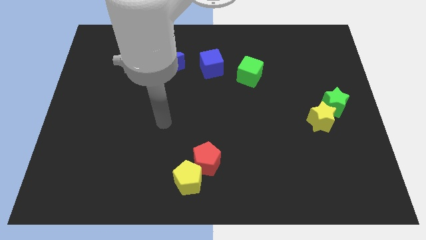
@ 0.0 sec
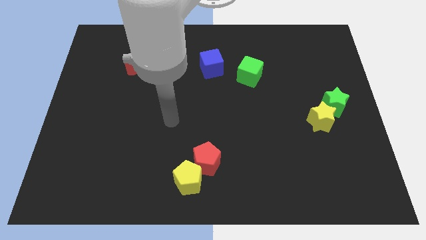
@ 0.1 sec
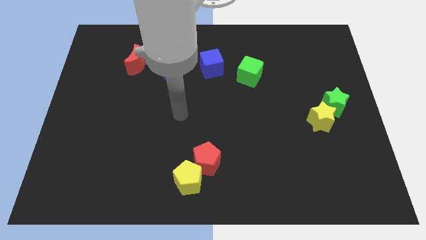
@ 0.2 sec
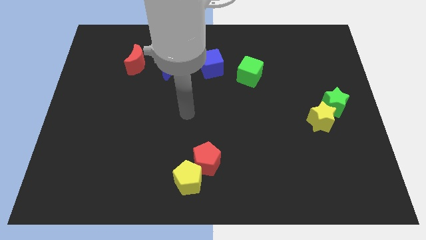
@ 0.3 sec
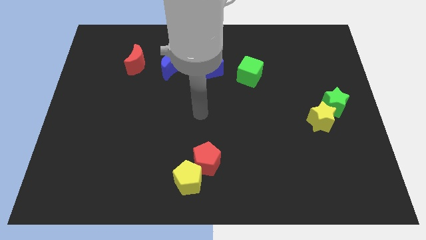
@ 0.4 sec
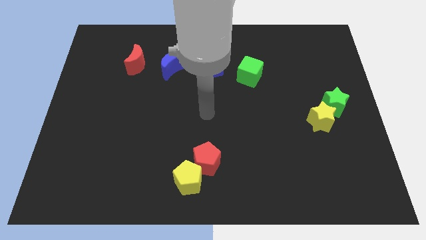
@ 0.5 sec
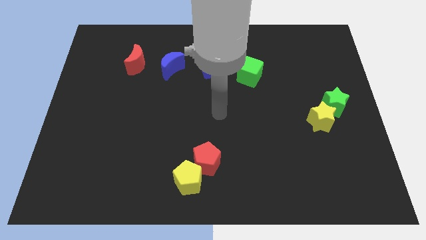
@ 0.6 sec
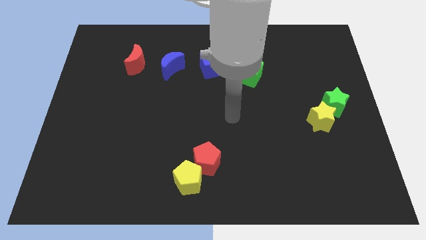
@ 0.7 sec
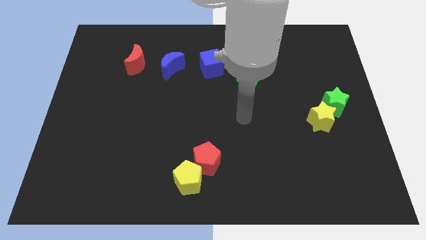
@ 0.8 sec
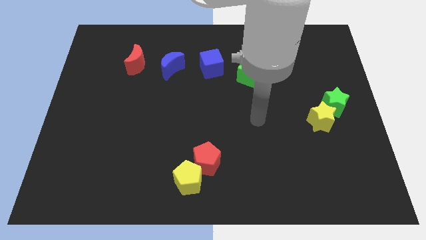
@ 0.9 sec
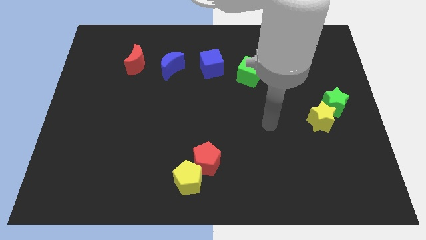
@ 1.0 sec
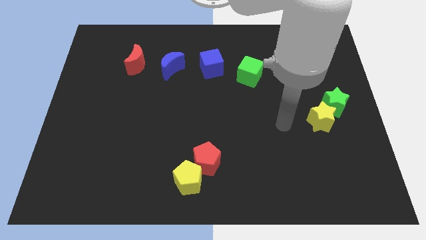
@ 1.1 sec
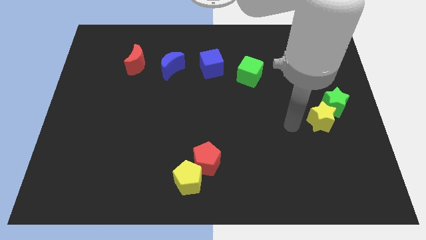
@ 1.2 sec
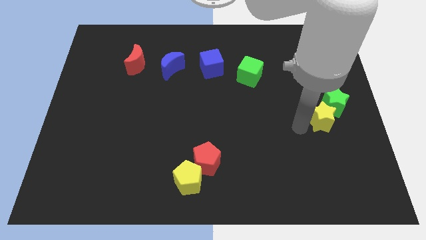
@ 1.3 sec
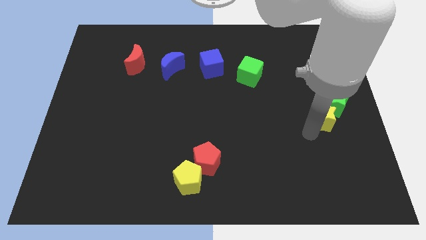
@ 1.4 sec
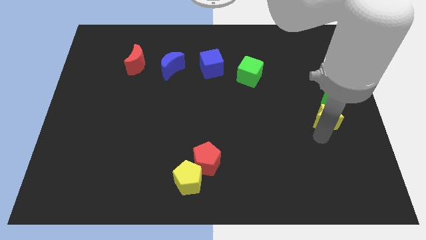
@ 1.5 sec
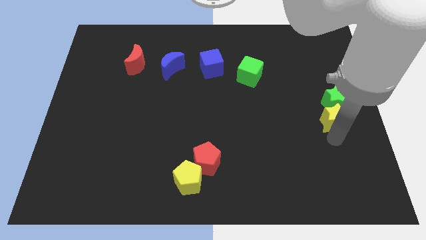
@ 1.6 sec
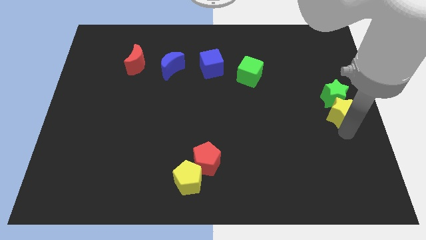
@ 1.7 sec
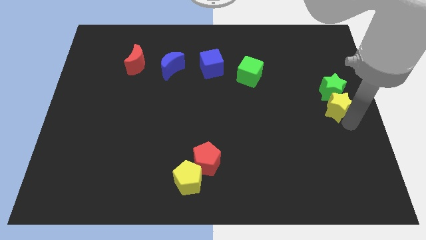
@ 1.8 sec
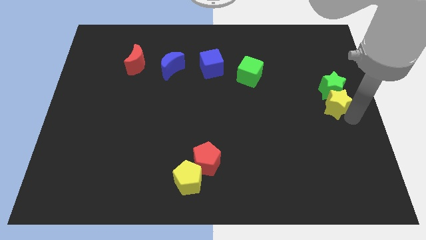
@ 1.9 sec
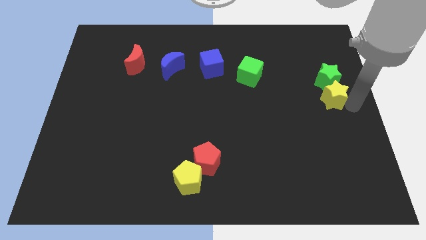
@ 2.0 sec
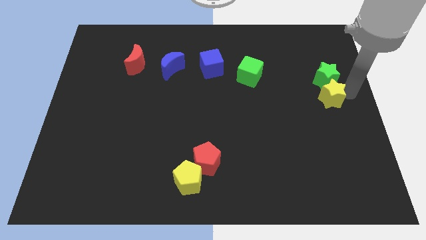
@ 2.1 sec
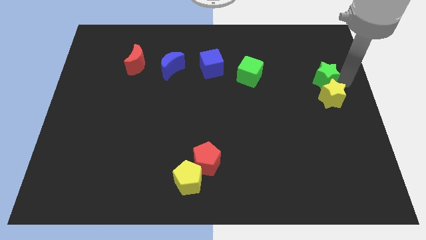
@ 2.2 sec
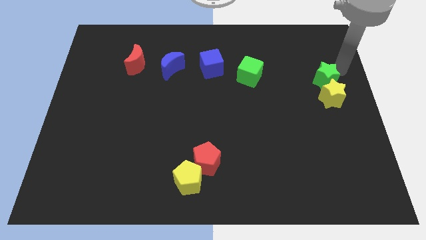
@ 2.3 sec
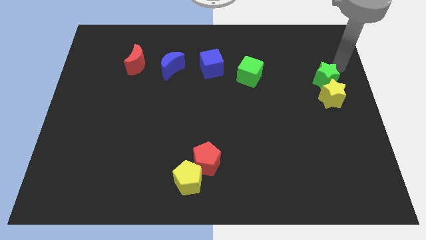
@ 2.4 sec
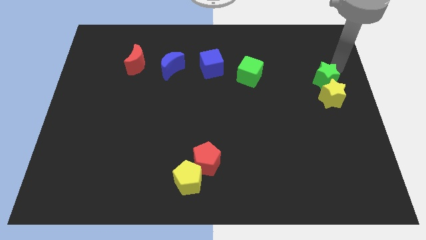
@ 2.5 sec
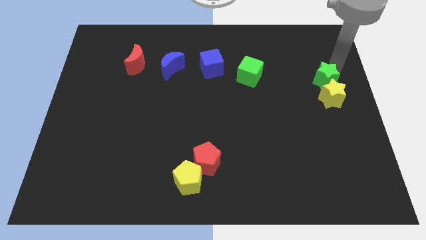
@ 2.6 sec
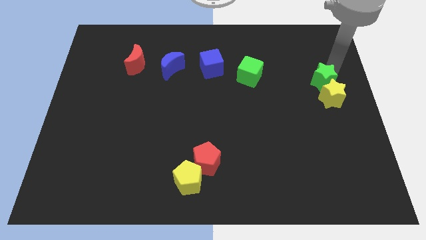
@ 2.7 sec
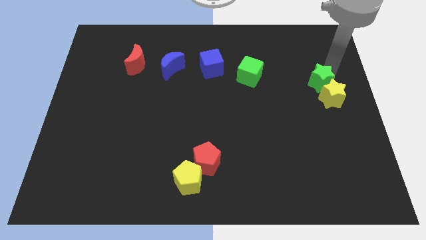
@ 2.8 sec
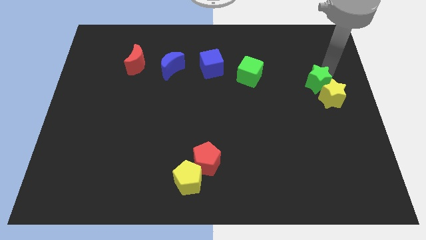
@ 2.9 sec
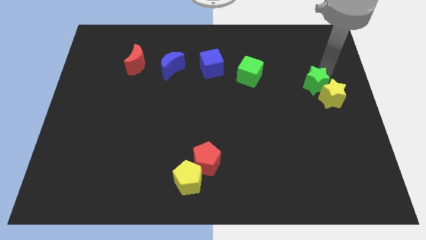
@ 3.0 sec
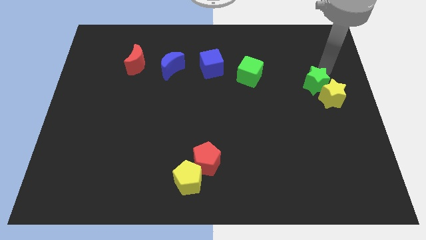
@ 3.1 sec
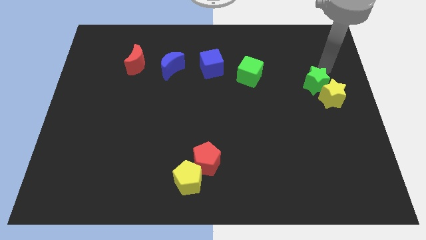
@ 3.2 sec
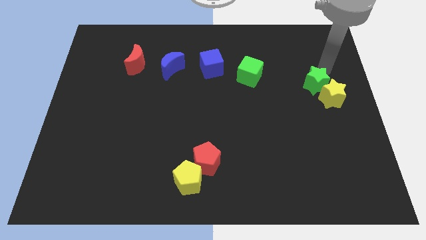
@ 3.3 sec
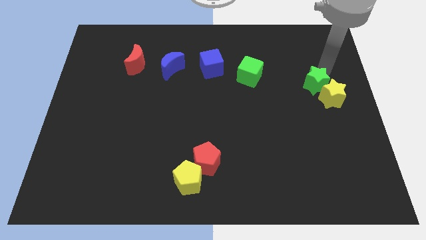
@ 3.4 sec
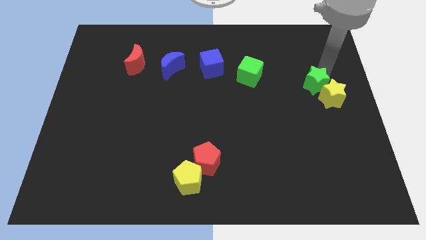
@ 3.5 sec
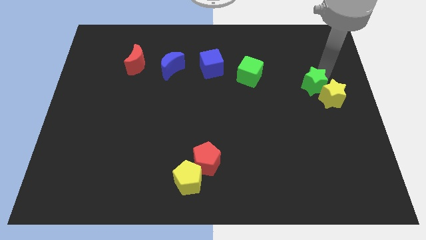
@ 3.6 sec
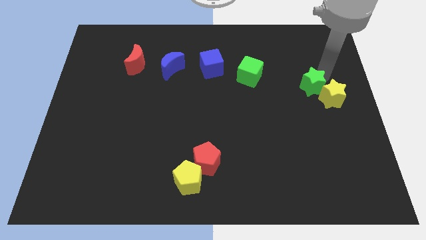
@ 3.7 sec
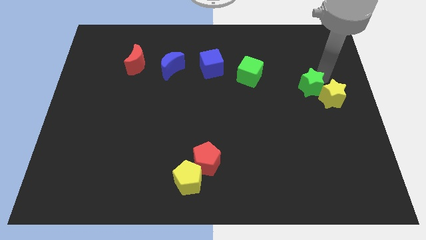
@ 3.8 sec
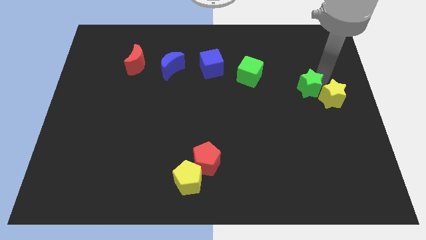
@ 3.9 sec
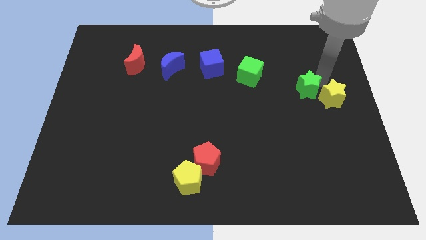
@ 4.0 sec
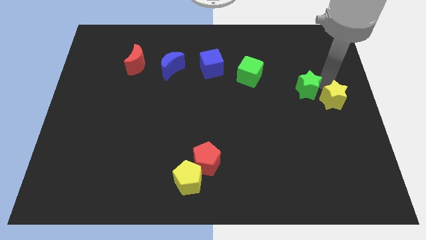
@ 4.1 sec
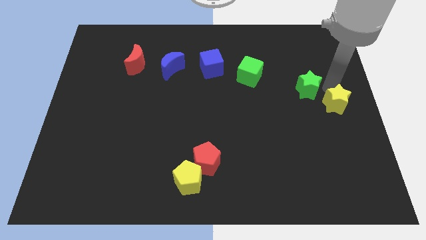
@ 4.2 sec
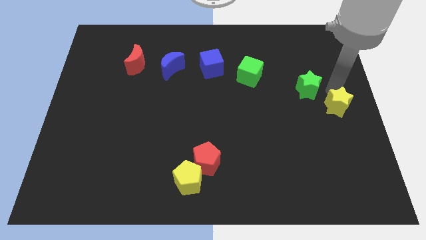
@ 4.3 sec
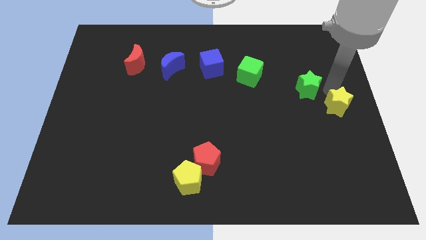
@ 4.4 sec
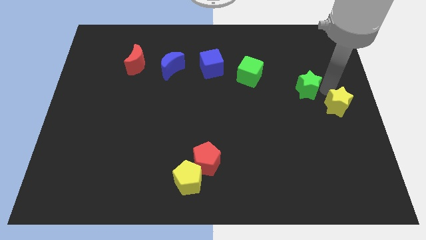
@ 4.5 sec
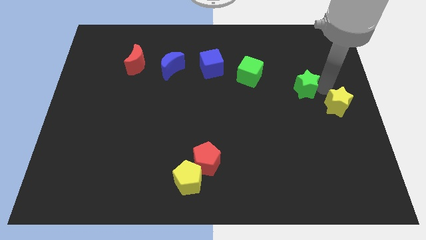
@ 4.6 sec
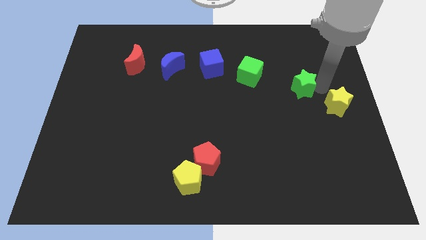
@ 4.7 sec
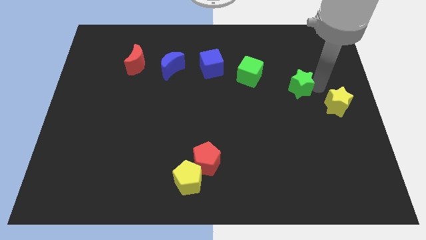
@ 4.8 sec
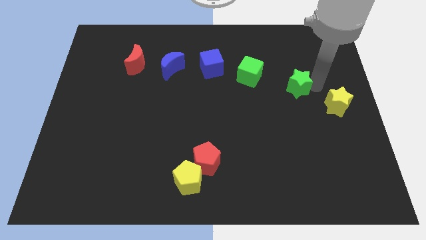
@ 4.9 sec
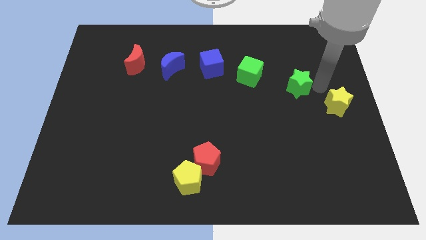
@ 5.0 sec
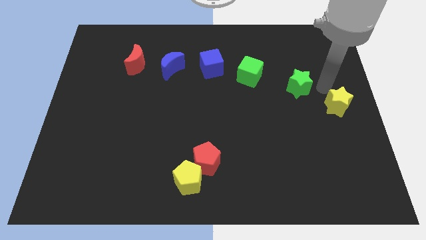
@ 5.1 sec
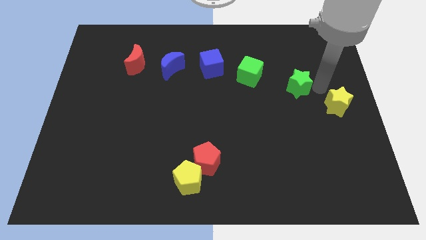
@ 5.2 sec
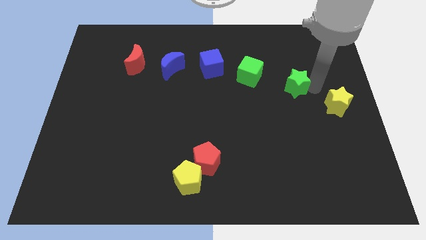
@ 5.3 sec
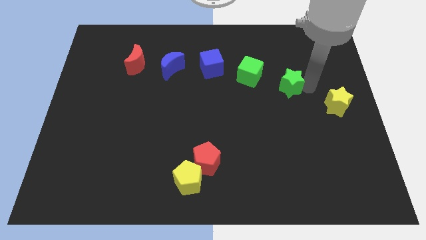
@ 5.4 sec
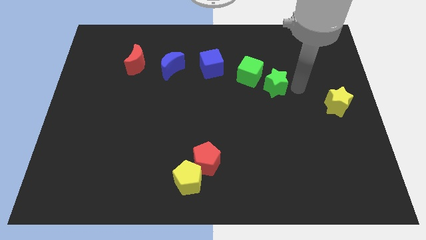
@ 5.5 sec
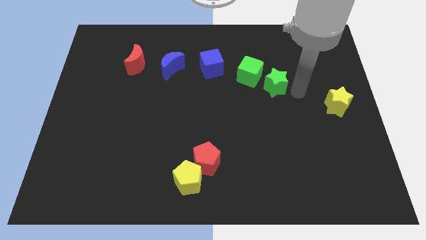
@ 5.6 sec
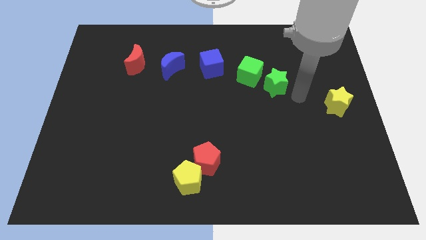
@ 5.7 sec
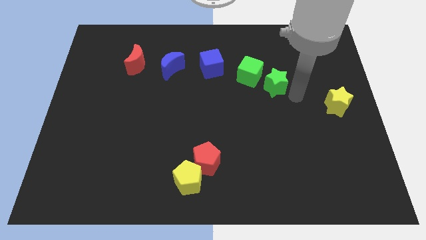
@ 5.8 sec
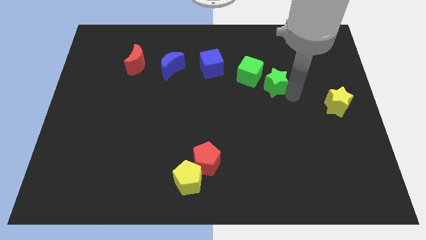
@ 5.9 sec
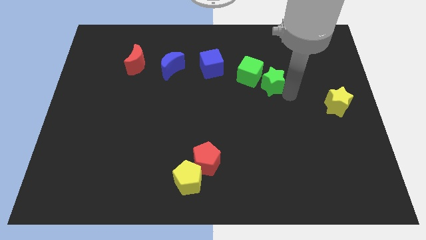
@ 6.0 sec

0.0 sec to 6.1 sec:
push the green star towards the green cube

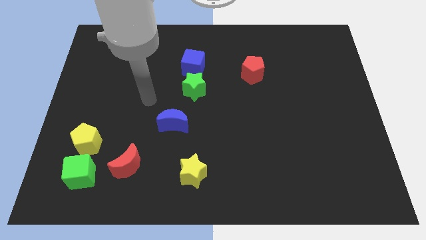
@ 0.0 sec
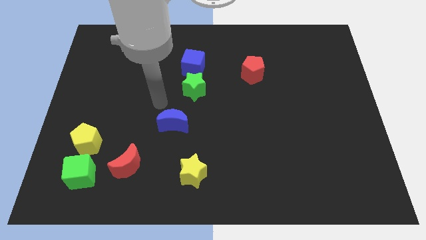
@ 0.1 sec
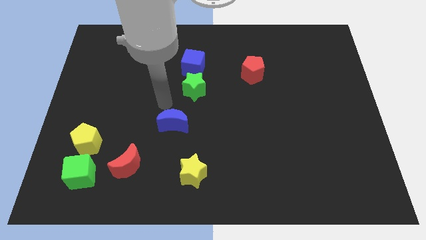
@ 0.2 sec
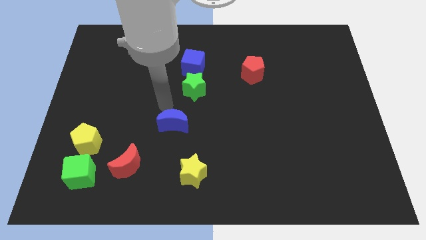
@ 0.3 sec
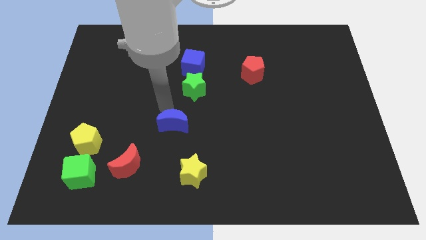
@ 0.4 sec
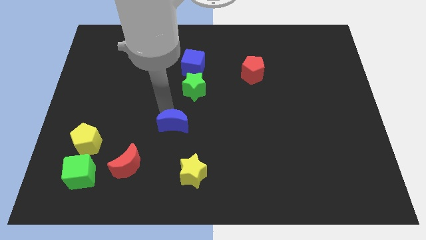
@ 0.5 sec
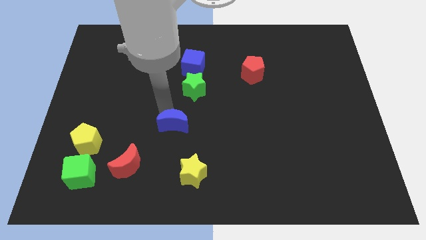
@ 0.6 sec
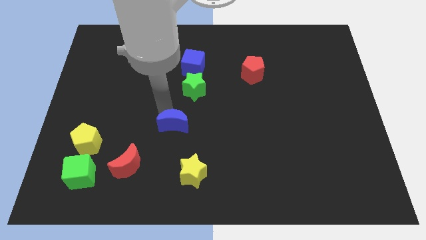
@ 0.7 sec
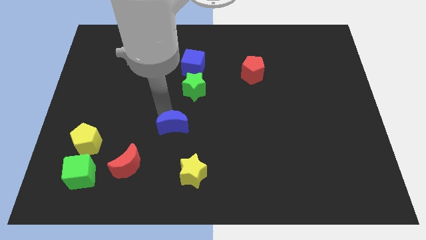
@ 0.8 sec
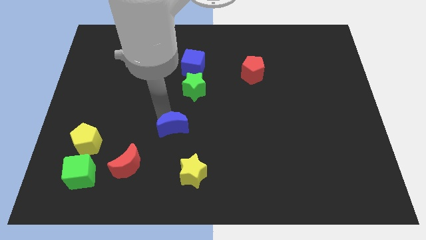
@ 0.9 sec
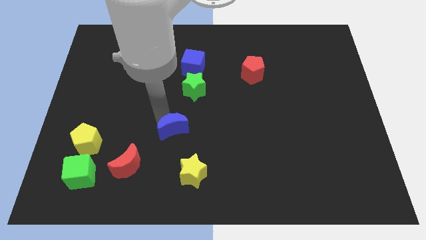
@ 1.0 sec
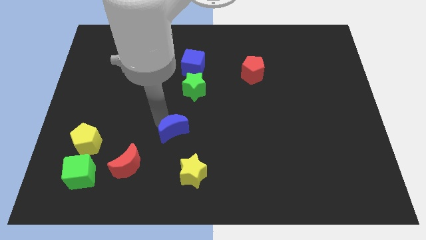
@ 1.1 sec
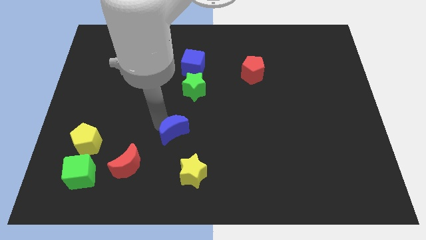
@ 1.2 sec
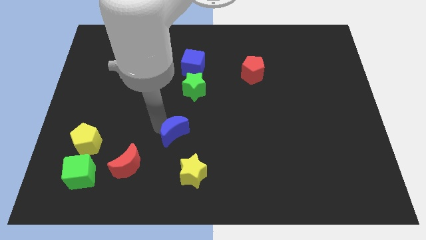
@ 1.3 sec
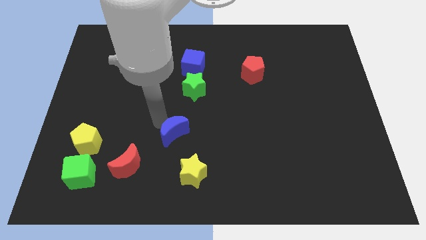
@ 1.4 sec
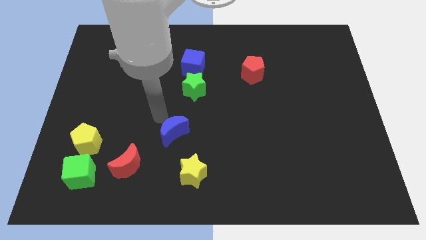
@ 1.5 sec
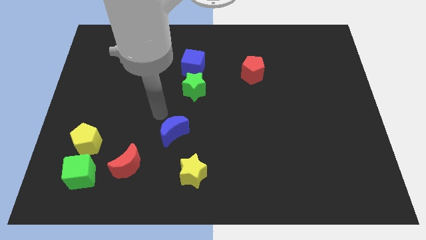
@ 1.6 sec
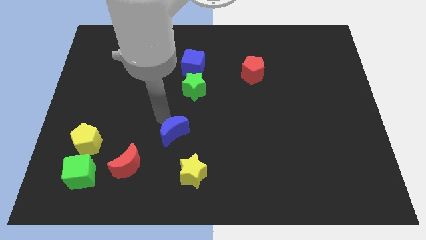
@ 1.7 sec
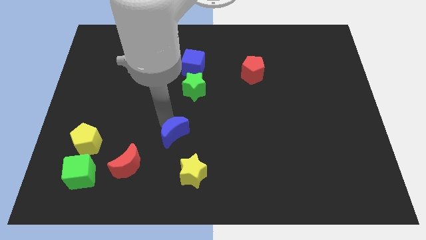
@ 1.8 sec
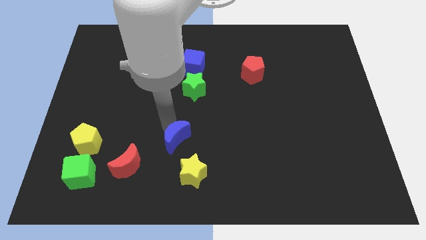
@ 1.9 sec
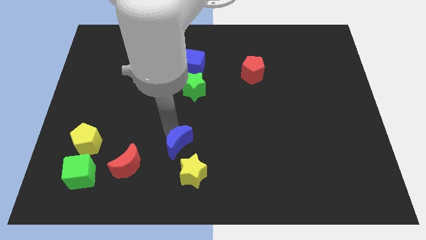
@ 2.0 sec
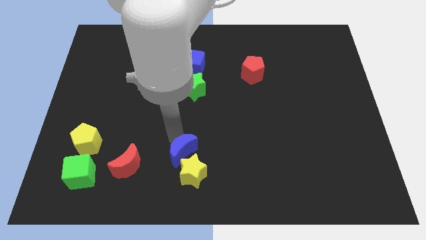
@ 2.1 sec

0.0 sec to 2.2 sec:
slide the blue moon next to the yellow star
